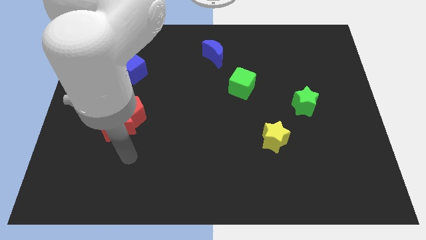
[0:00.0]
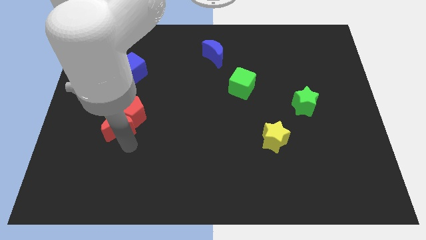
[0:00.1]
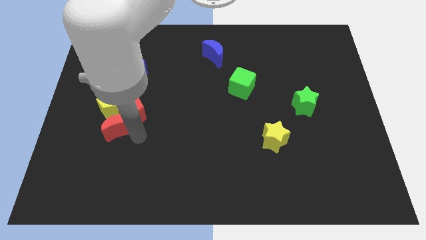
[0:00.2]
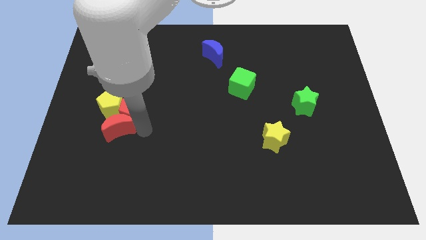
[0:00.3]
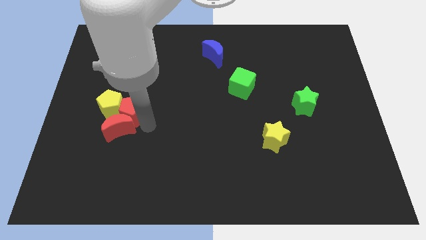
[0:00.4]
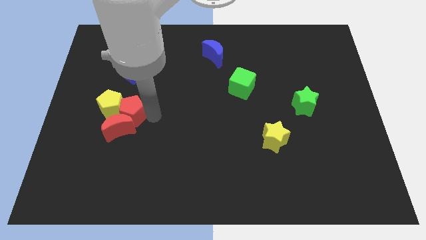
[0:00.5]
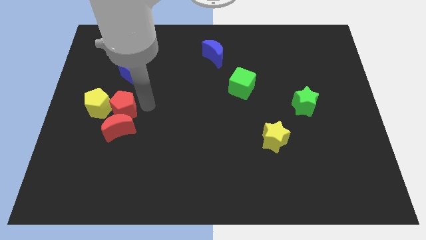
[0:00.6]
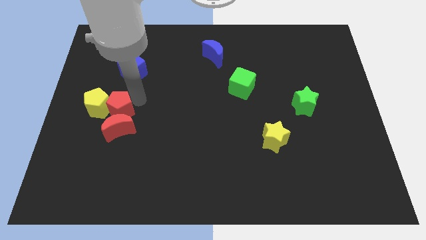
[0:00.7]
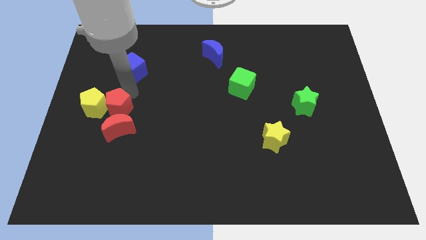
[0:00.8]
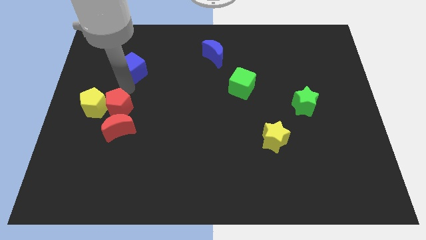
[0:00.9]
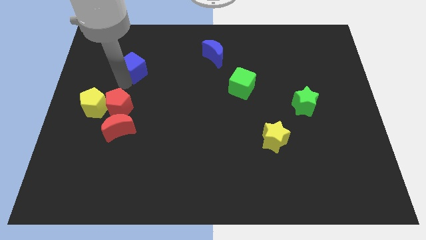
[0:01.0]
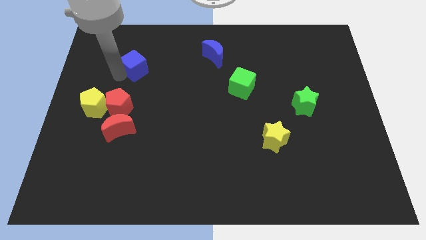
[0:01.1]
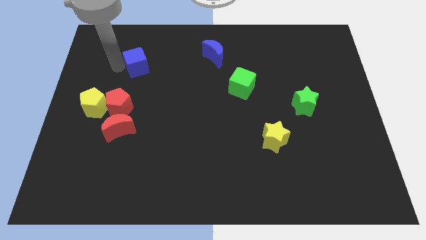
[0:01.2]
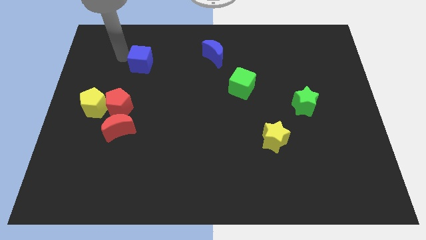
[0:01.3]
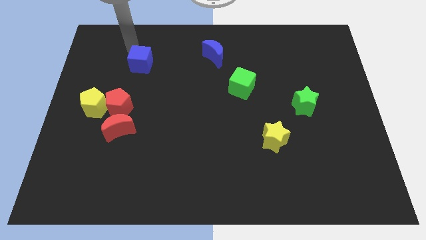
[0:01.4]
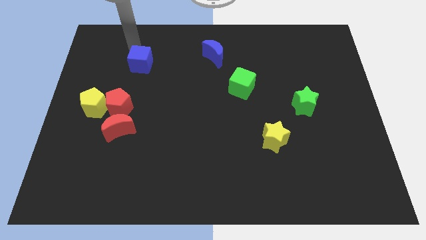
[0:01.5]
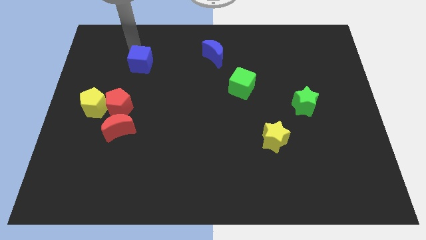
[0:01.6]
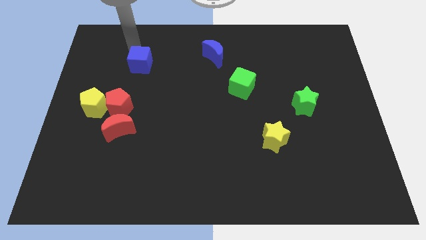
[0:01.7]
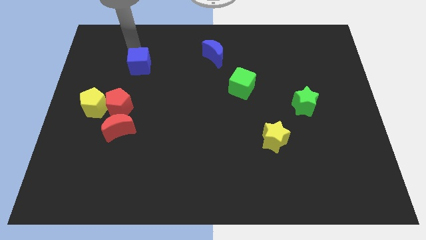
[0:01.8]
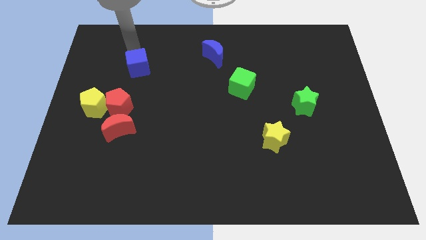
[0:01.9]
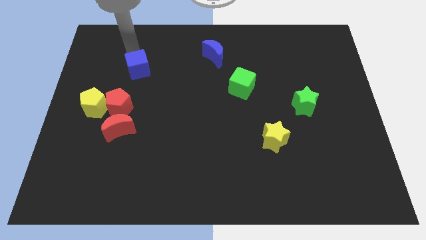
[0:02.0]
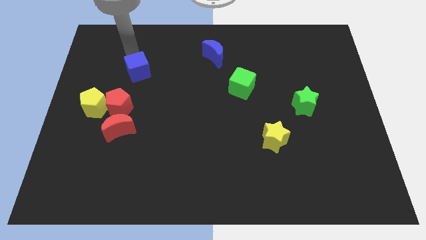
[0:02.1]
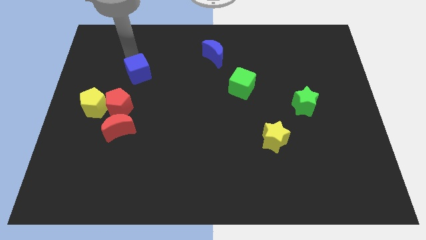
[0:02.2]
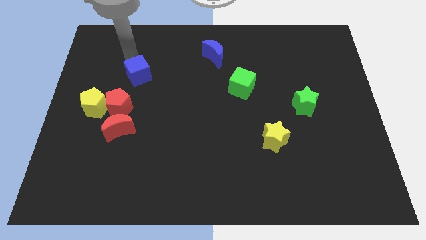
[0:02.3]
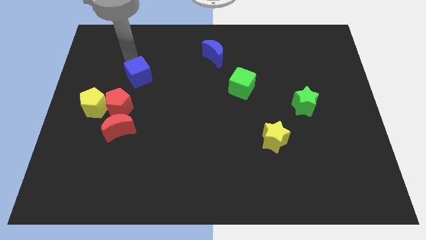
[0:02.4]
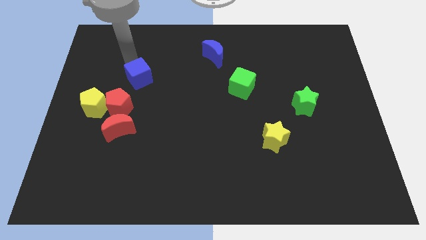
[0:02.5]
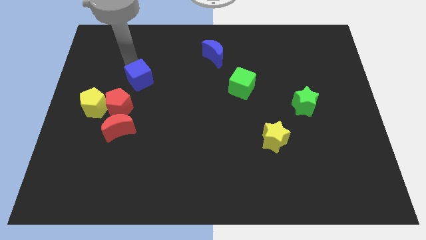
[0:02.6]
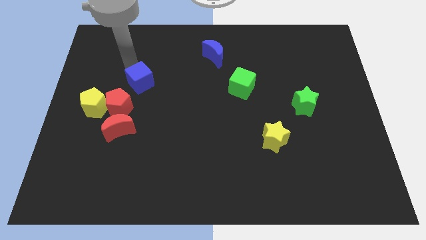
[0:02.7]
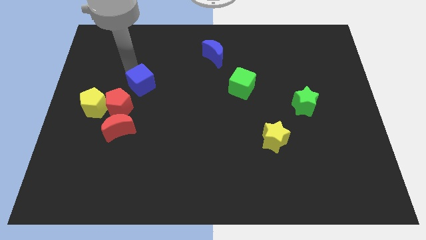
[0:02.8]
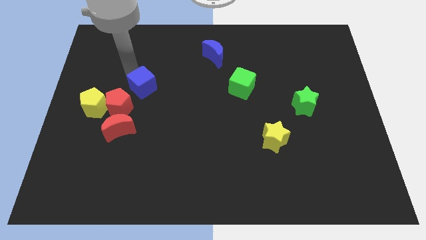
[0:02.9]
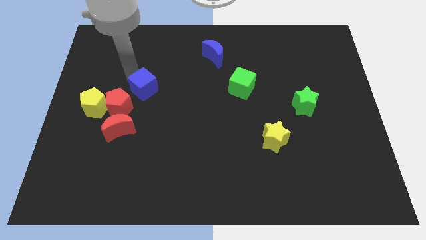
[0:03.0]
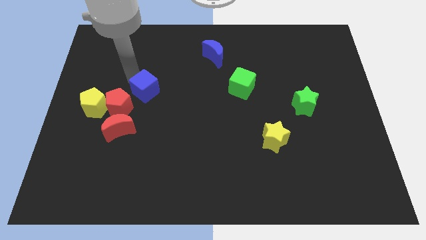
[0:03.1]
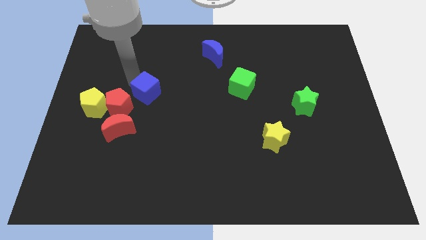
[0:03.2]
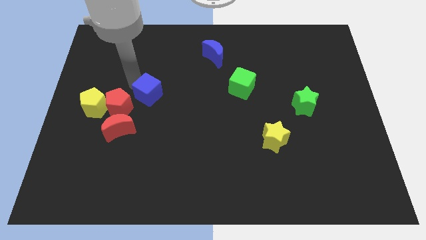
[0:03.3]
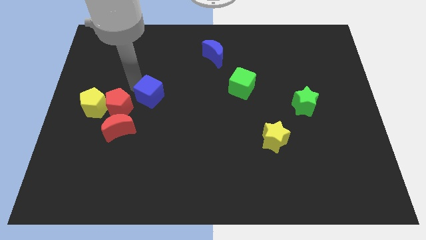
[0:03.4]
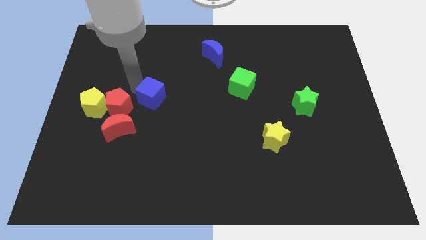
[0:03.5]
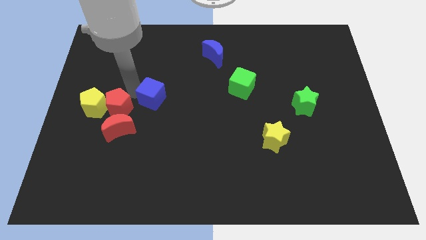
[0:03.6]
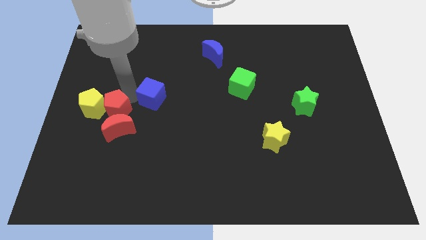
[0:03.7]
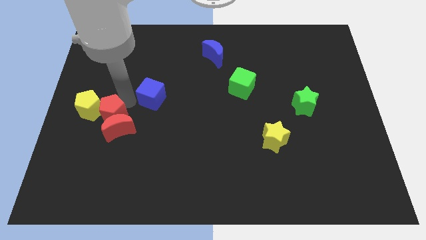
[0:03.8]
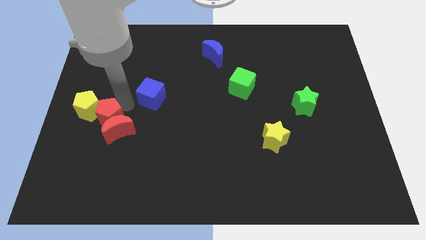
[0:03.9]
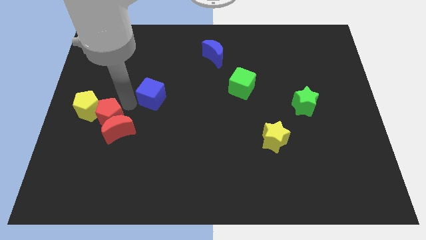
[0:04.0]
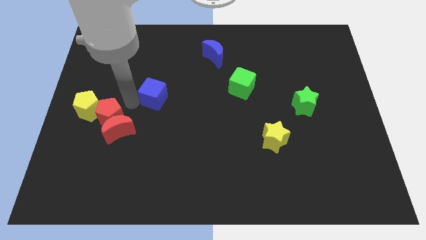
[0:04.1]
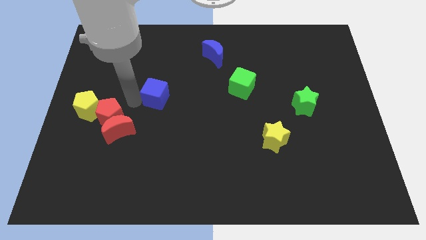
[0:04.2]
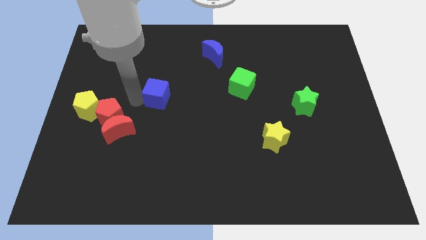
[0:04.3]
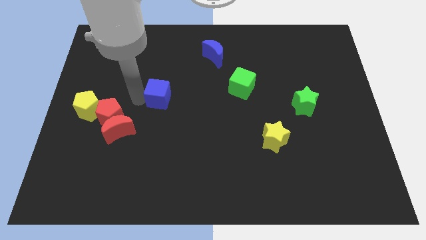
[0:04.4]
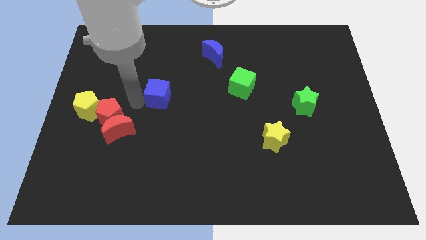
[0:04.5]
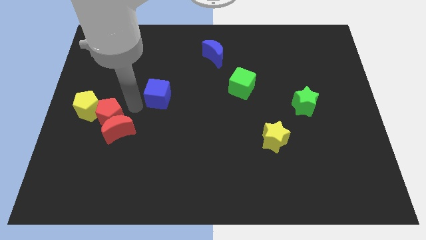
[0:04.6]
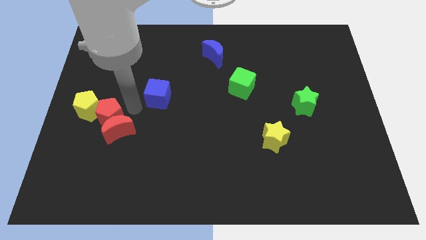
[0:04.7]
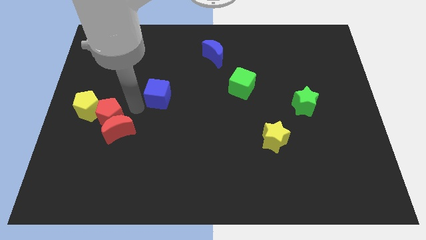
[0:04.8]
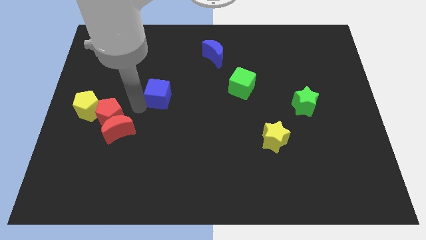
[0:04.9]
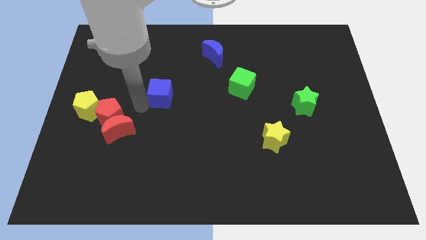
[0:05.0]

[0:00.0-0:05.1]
push the blue cube to the middle of the board
